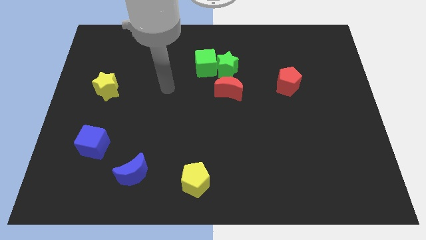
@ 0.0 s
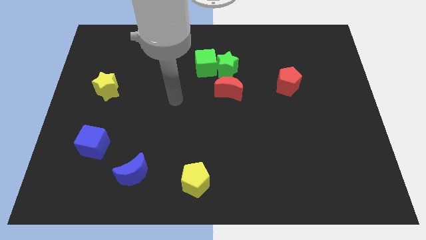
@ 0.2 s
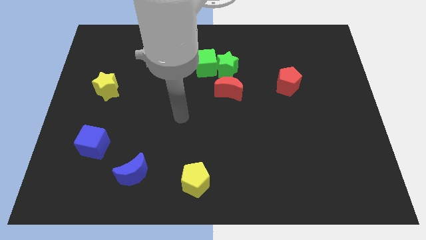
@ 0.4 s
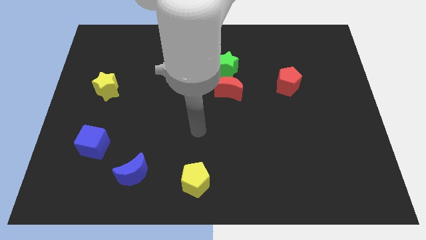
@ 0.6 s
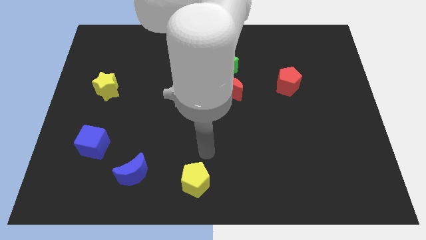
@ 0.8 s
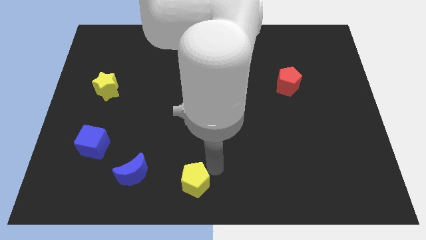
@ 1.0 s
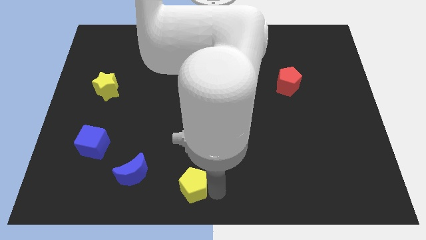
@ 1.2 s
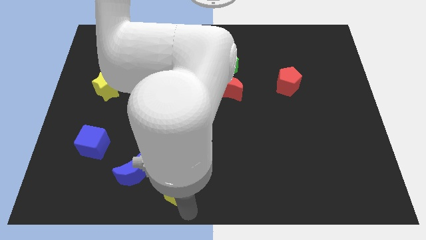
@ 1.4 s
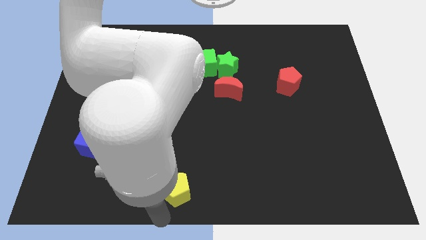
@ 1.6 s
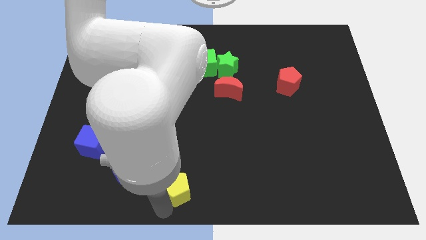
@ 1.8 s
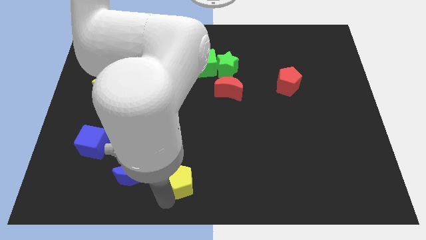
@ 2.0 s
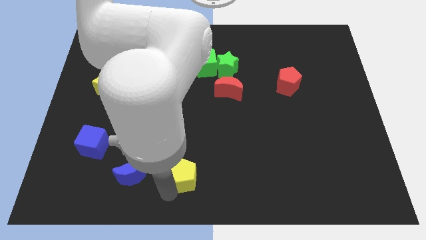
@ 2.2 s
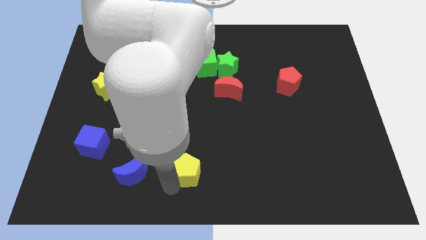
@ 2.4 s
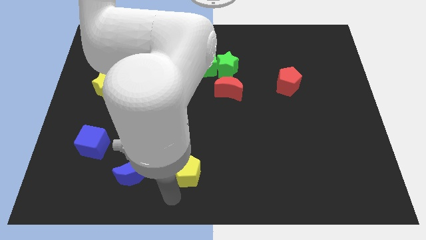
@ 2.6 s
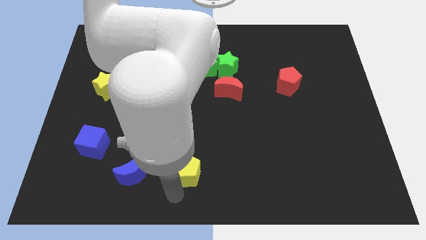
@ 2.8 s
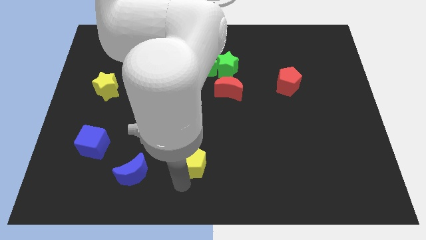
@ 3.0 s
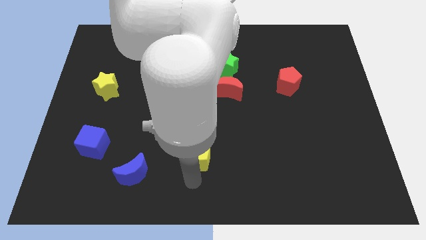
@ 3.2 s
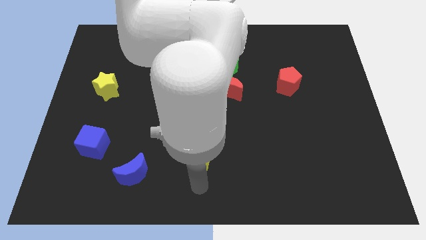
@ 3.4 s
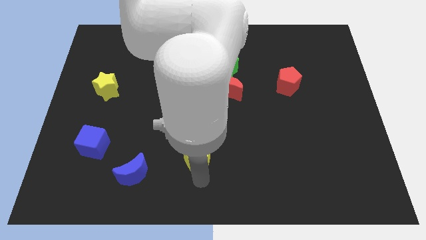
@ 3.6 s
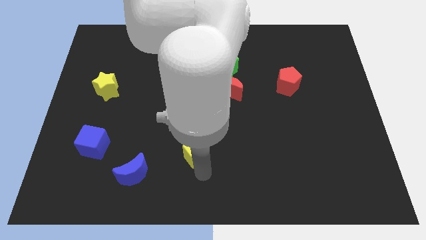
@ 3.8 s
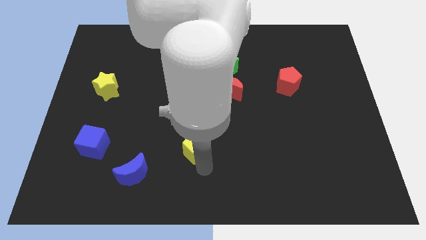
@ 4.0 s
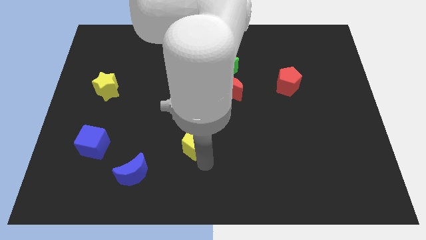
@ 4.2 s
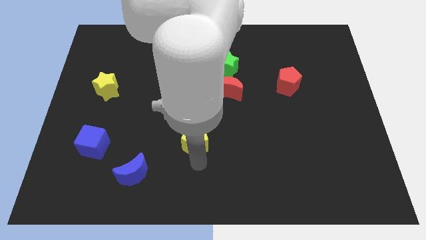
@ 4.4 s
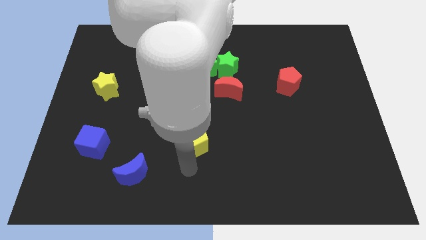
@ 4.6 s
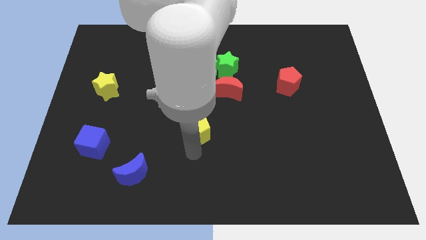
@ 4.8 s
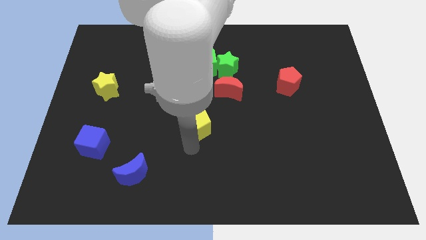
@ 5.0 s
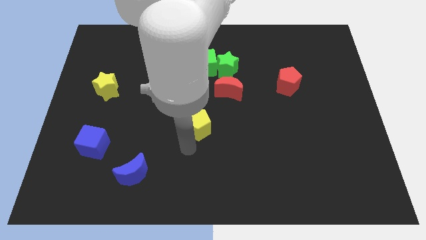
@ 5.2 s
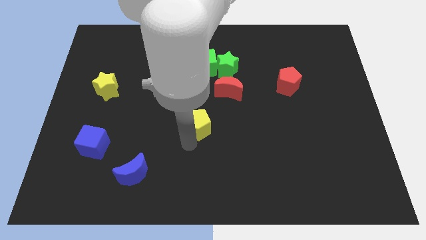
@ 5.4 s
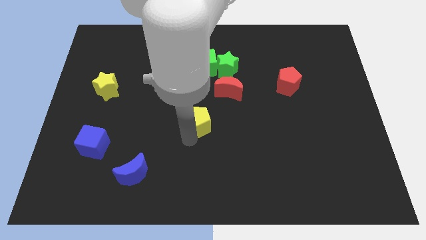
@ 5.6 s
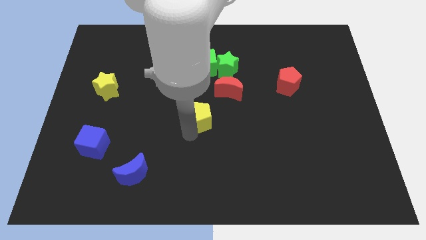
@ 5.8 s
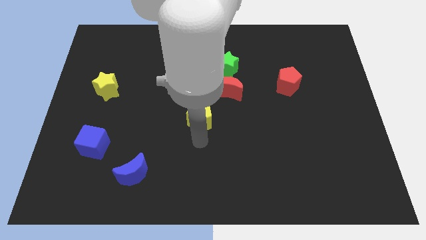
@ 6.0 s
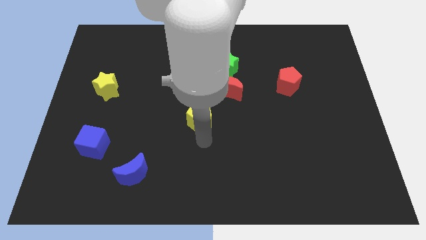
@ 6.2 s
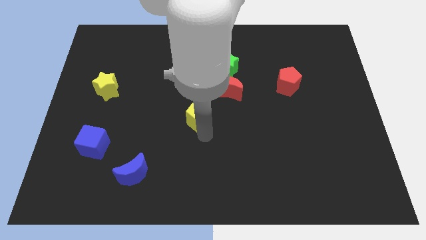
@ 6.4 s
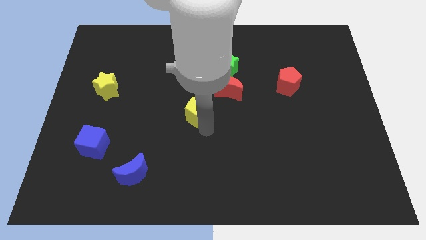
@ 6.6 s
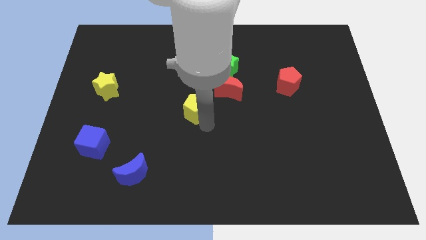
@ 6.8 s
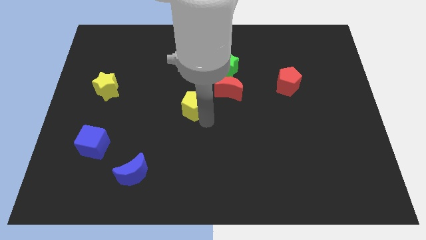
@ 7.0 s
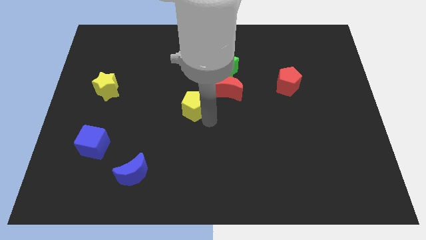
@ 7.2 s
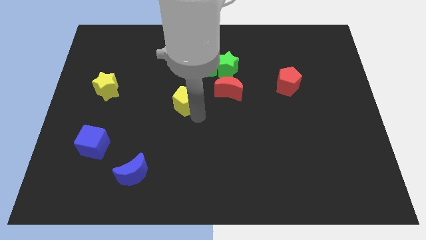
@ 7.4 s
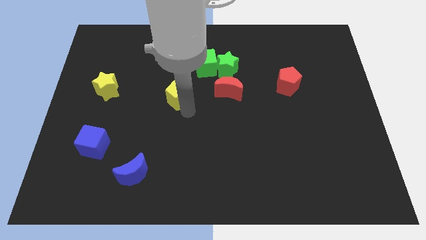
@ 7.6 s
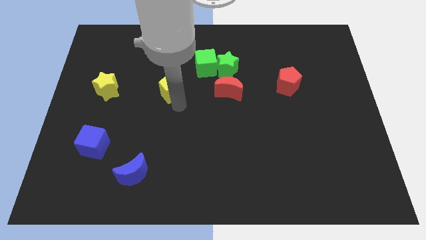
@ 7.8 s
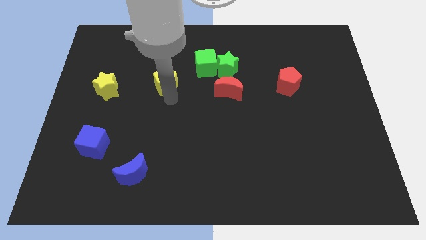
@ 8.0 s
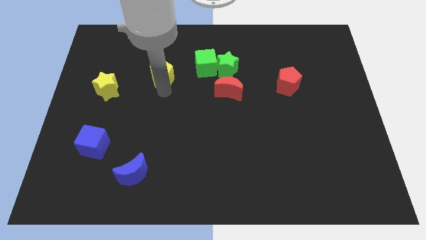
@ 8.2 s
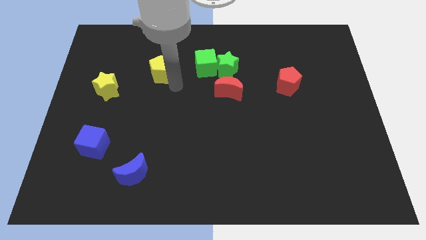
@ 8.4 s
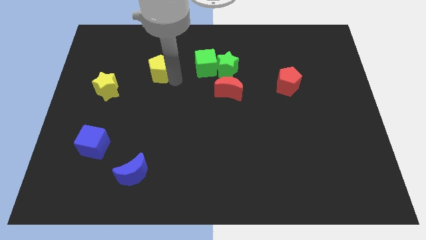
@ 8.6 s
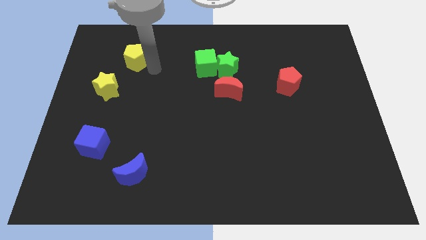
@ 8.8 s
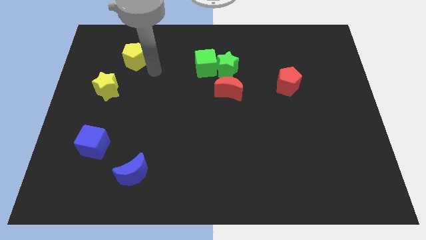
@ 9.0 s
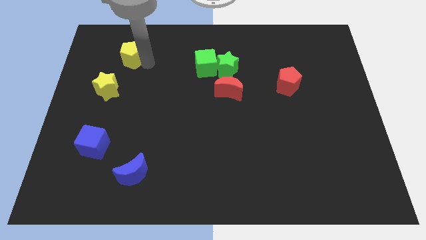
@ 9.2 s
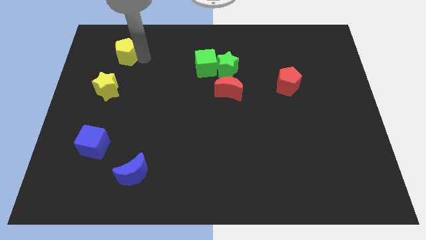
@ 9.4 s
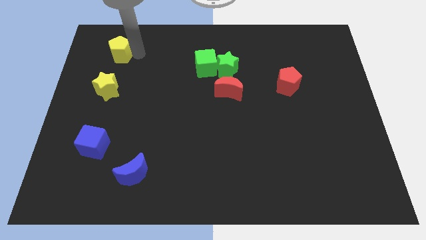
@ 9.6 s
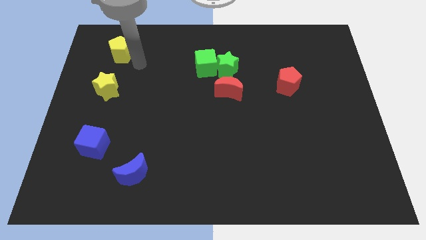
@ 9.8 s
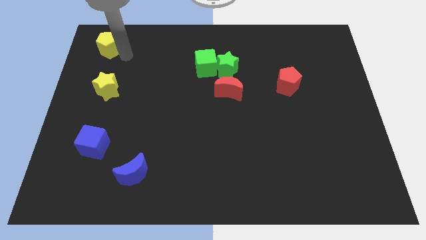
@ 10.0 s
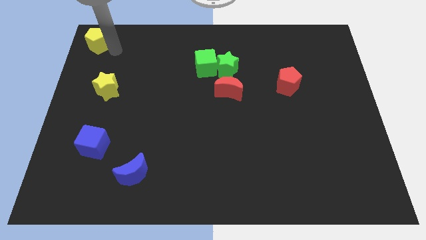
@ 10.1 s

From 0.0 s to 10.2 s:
move the yellow pentagon to the top left

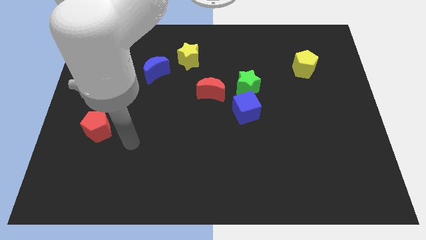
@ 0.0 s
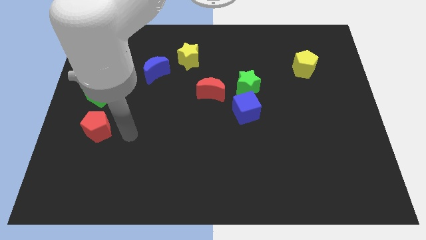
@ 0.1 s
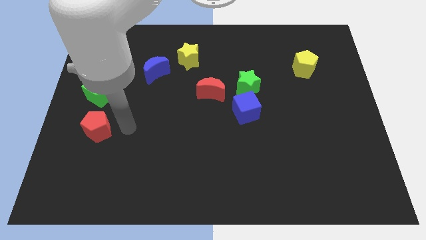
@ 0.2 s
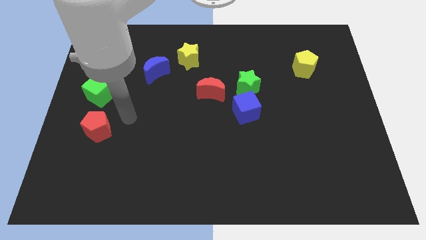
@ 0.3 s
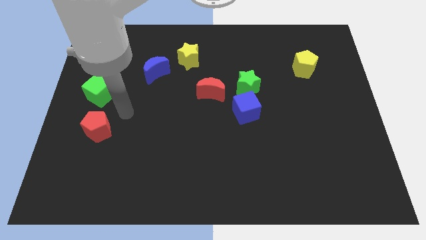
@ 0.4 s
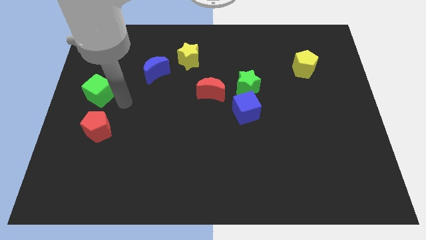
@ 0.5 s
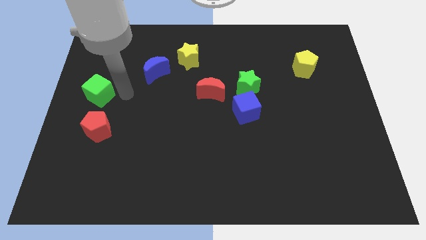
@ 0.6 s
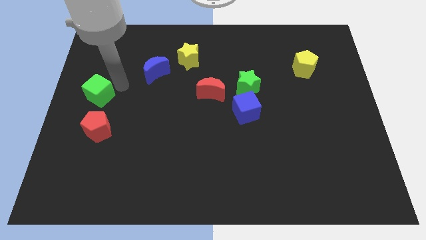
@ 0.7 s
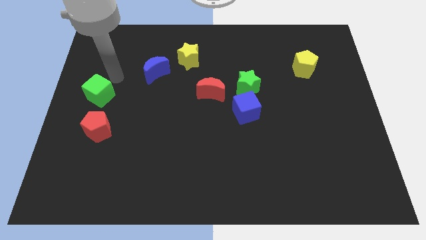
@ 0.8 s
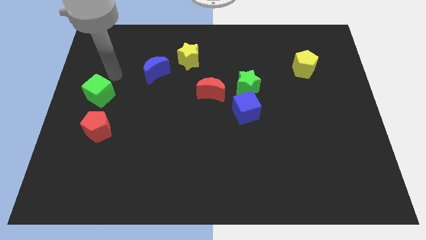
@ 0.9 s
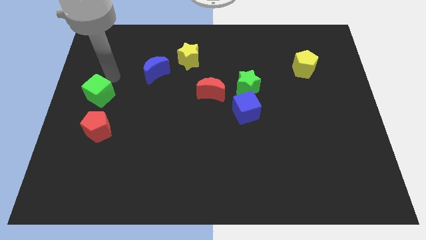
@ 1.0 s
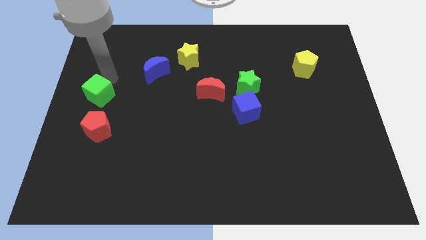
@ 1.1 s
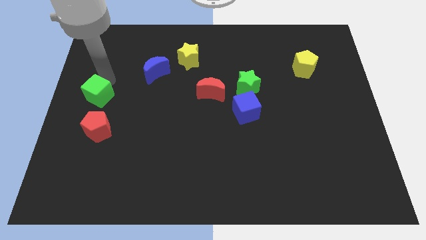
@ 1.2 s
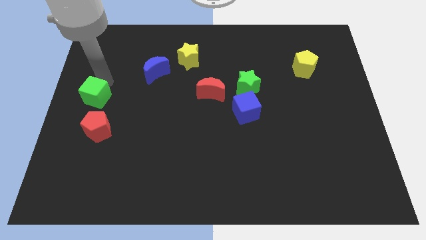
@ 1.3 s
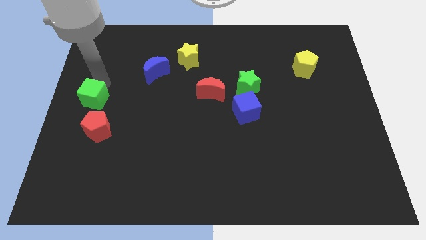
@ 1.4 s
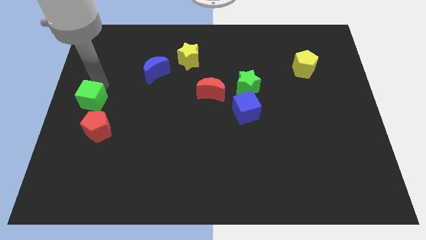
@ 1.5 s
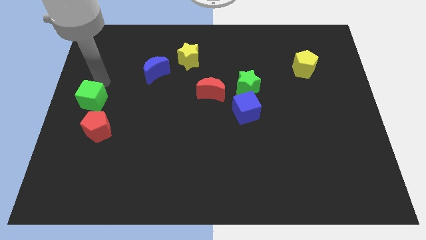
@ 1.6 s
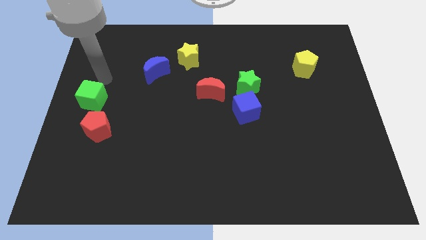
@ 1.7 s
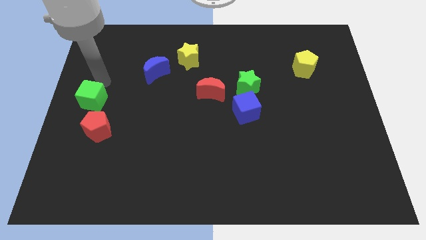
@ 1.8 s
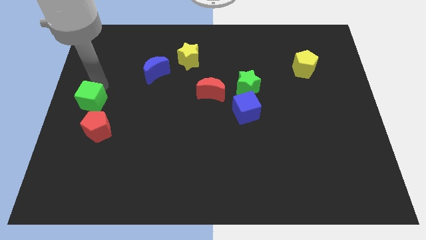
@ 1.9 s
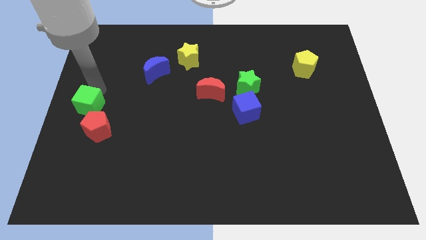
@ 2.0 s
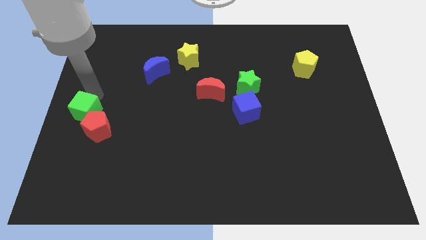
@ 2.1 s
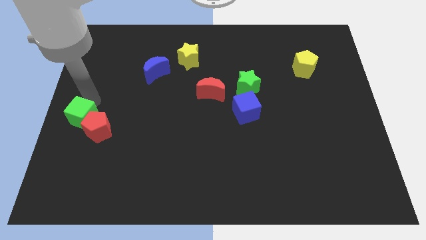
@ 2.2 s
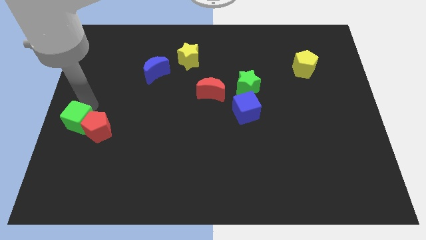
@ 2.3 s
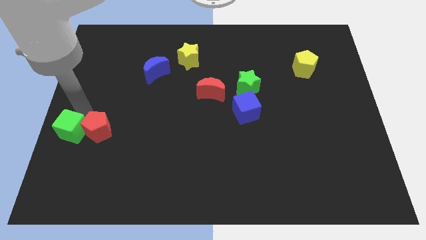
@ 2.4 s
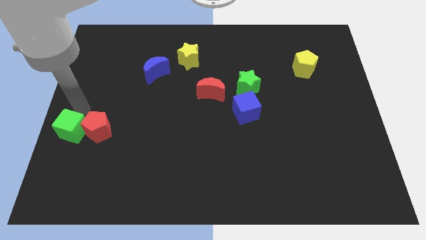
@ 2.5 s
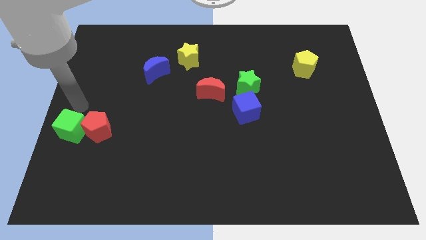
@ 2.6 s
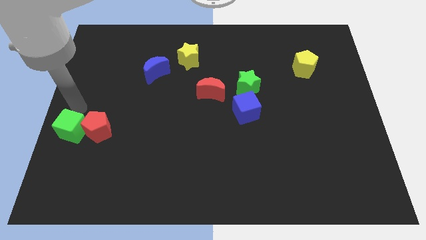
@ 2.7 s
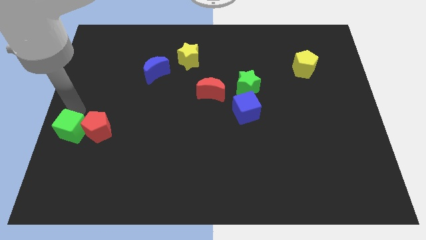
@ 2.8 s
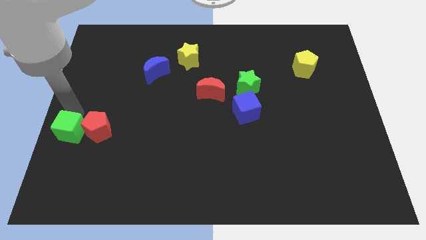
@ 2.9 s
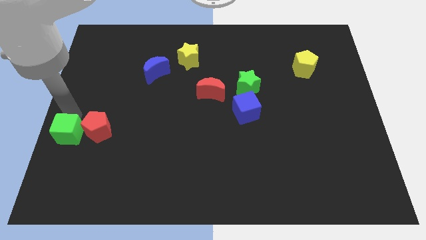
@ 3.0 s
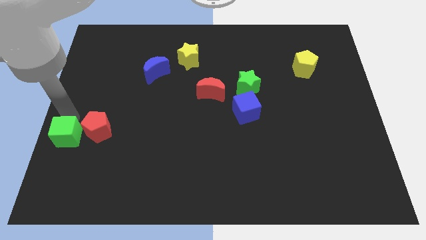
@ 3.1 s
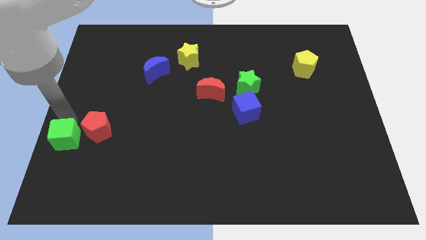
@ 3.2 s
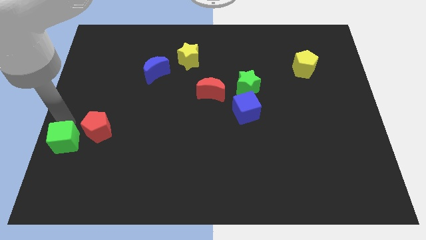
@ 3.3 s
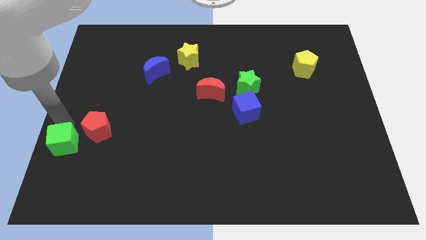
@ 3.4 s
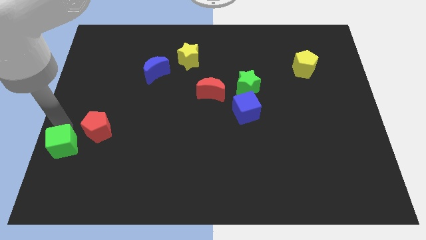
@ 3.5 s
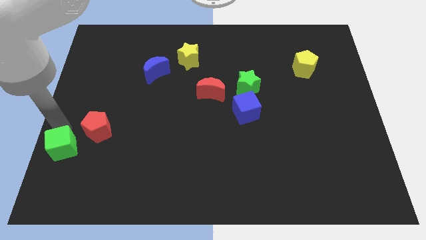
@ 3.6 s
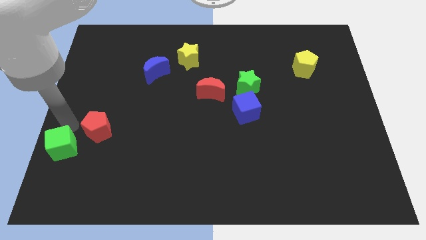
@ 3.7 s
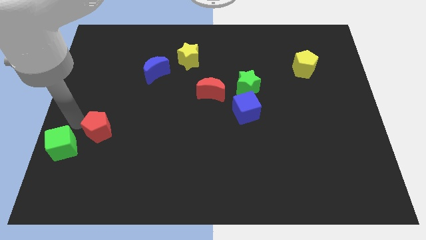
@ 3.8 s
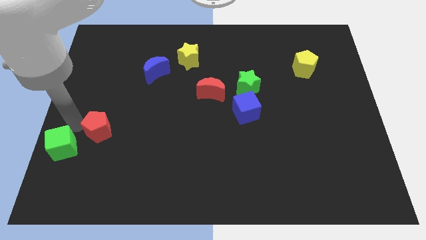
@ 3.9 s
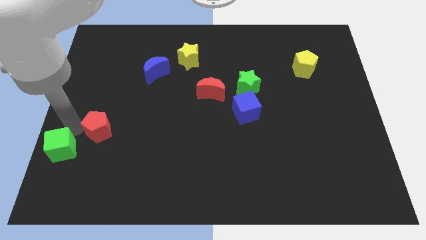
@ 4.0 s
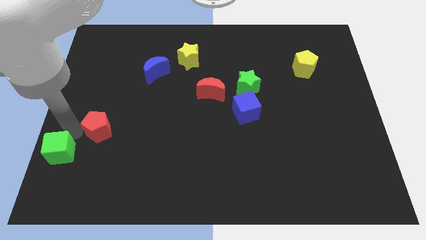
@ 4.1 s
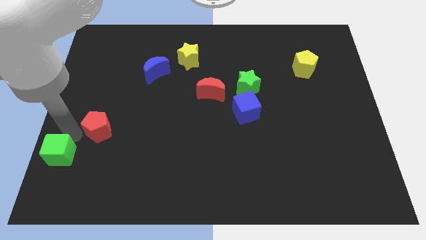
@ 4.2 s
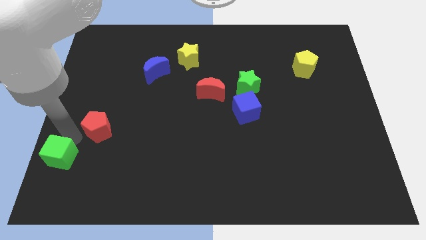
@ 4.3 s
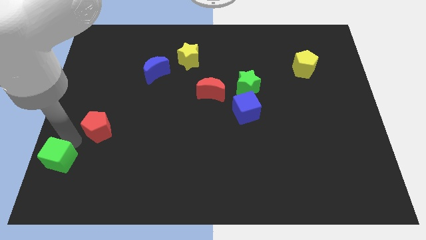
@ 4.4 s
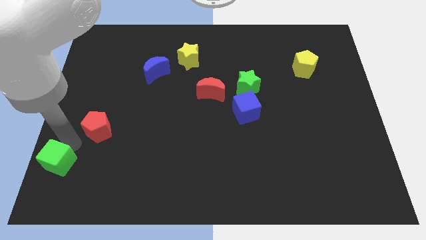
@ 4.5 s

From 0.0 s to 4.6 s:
put the green cube to the bottom left corner
